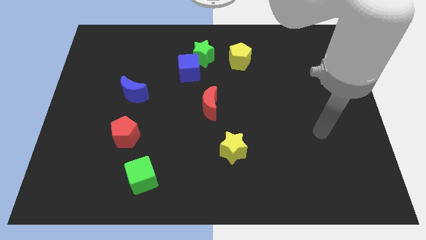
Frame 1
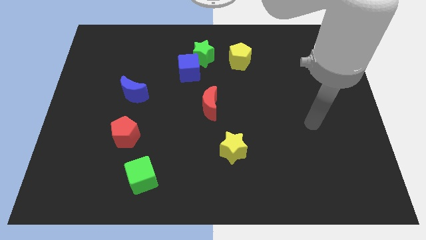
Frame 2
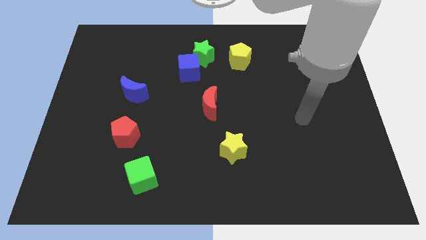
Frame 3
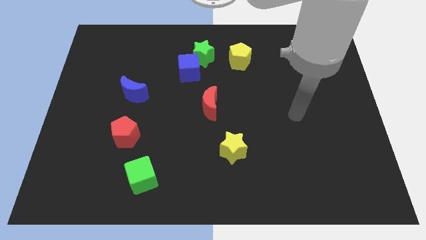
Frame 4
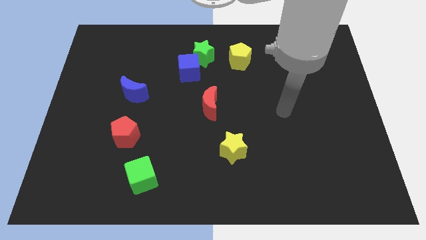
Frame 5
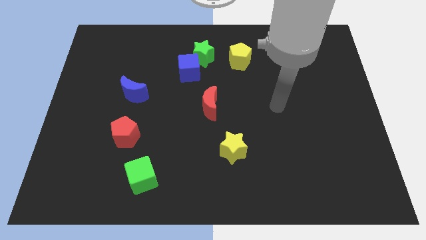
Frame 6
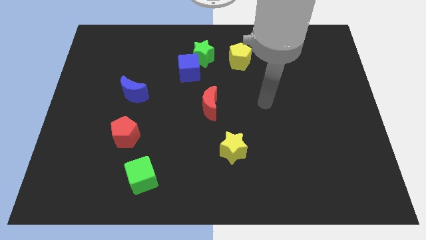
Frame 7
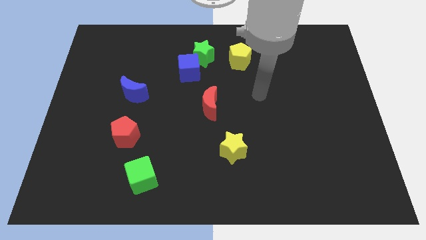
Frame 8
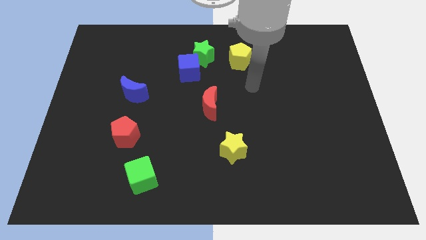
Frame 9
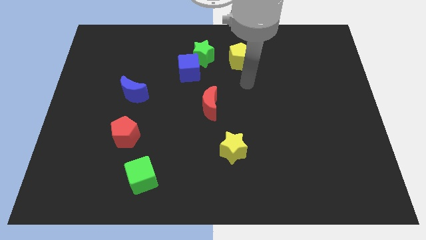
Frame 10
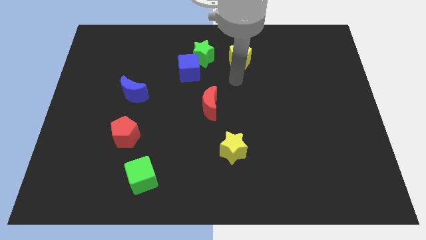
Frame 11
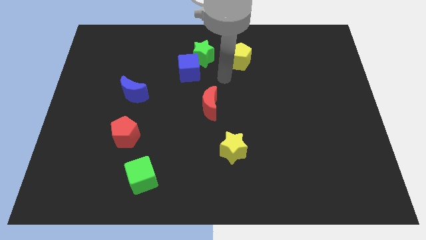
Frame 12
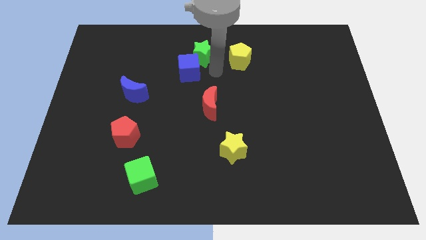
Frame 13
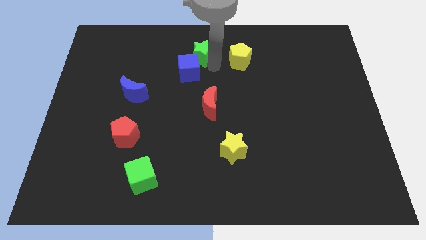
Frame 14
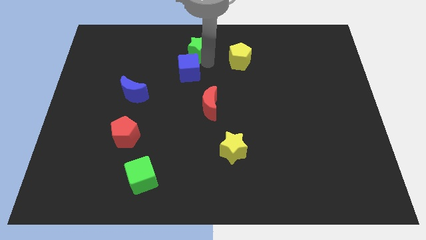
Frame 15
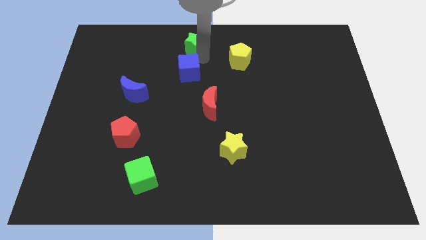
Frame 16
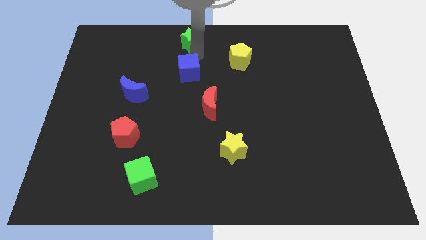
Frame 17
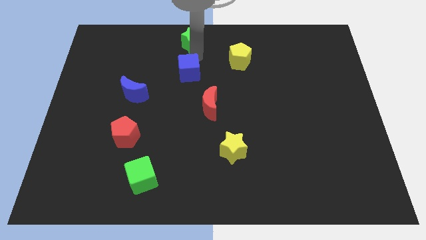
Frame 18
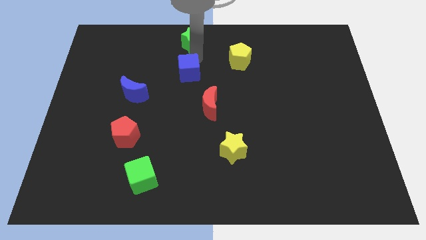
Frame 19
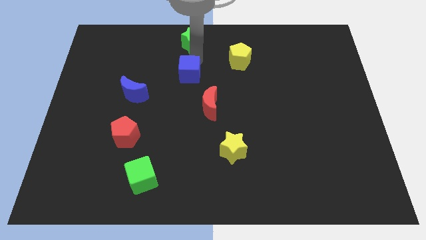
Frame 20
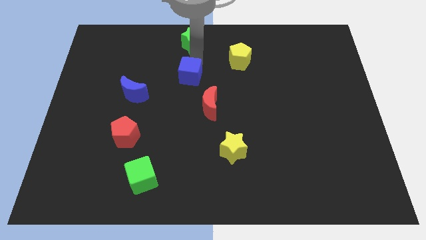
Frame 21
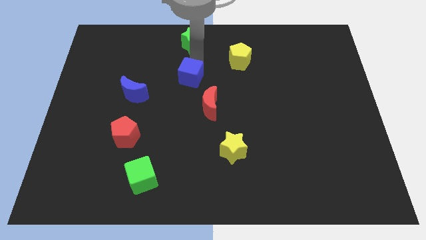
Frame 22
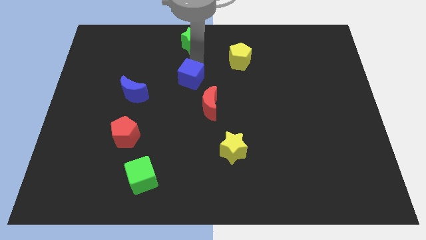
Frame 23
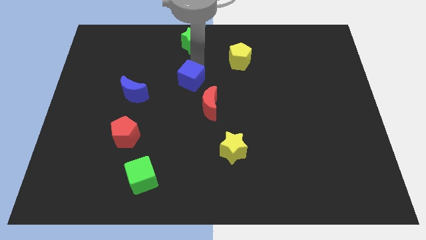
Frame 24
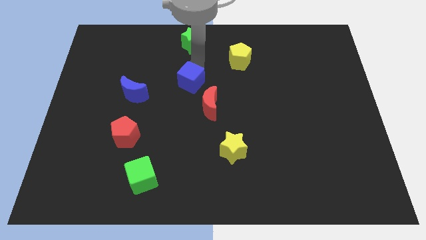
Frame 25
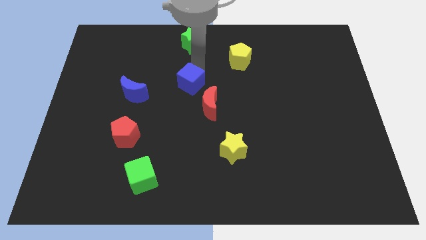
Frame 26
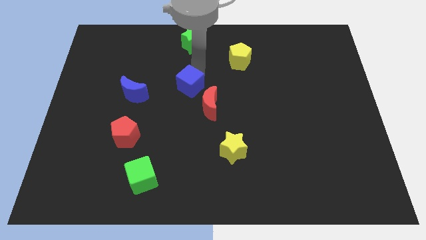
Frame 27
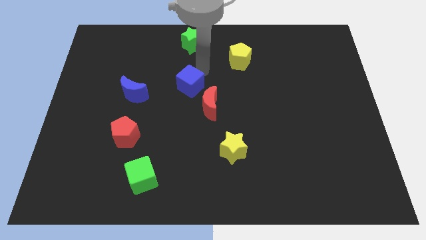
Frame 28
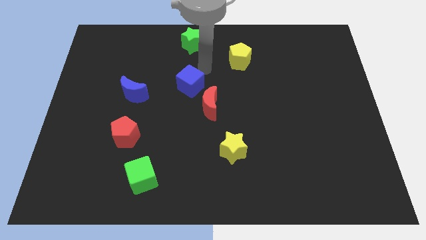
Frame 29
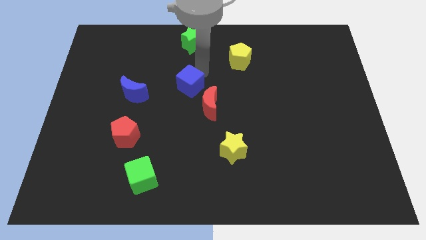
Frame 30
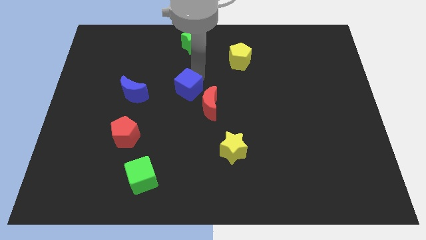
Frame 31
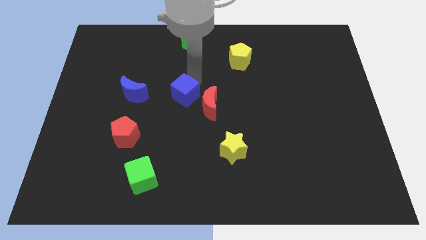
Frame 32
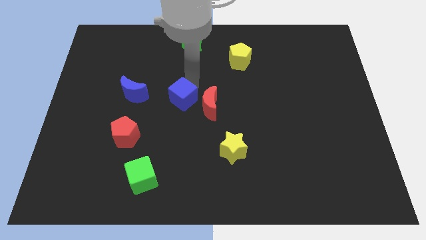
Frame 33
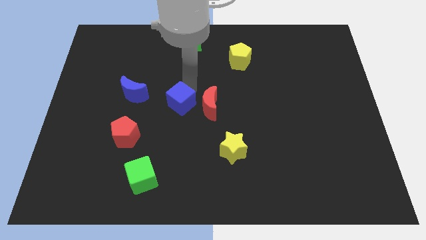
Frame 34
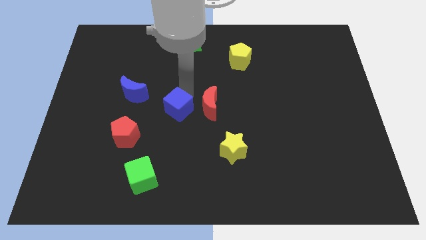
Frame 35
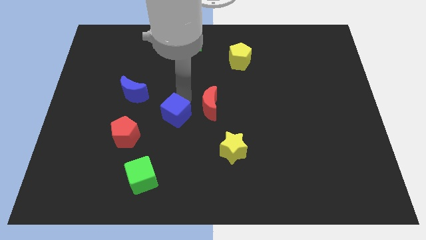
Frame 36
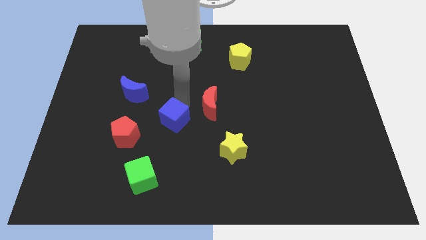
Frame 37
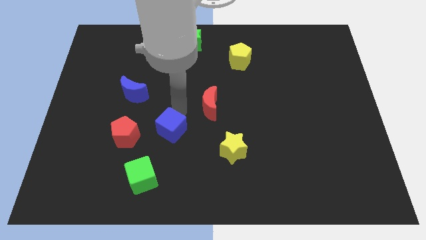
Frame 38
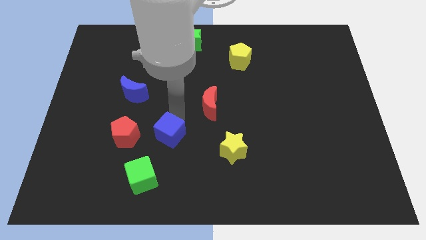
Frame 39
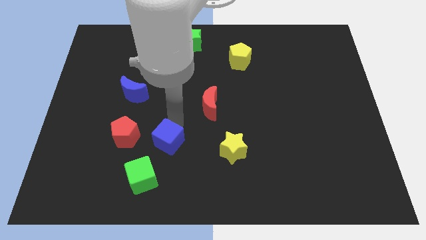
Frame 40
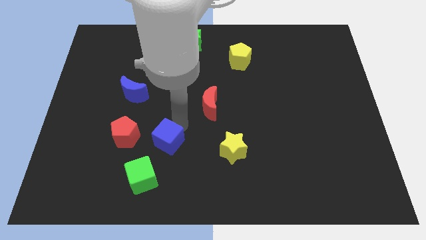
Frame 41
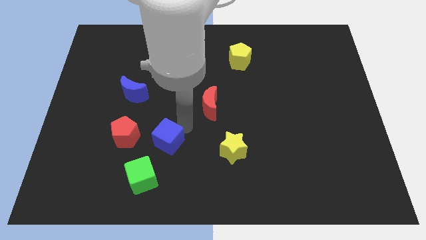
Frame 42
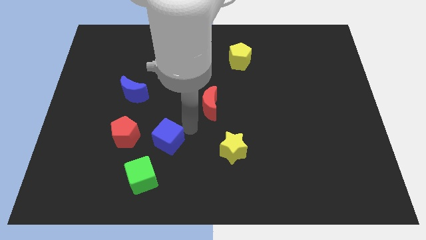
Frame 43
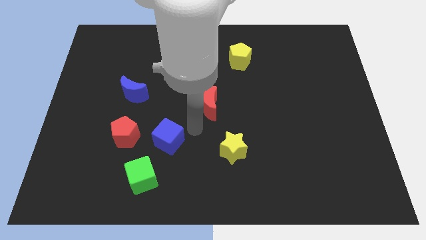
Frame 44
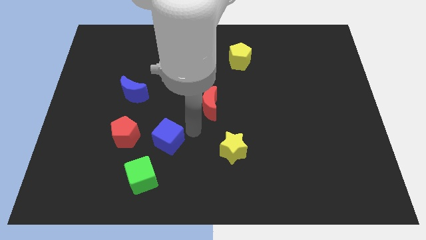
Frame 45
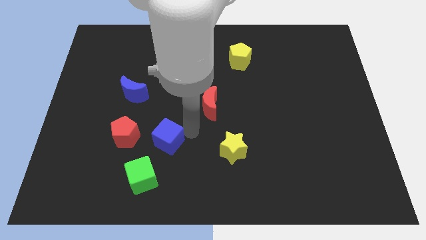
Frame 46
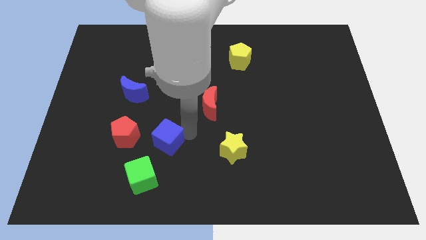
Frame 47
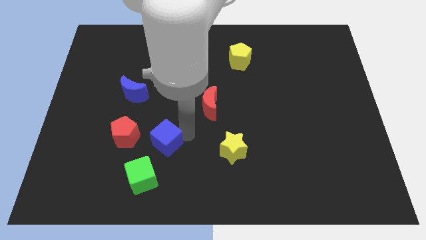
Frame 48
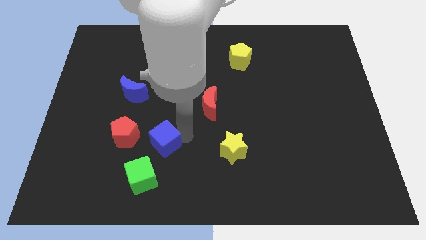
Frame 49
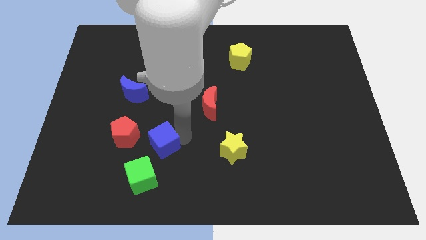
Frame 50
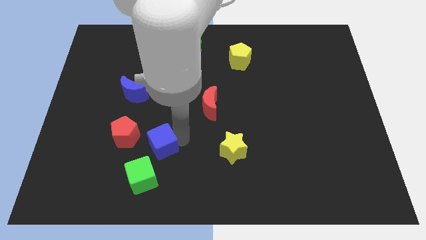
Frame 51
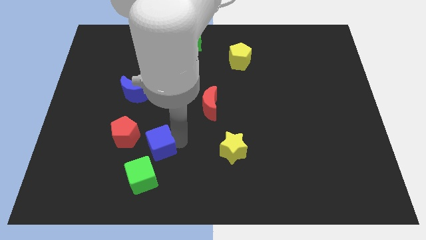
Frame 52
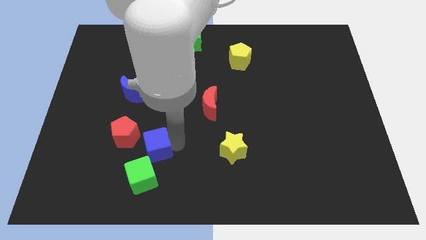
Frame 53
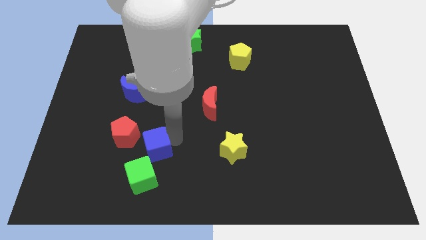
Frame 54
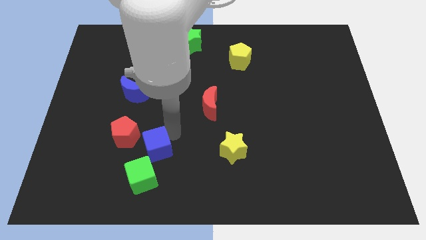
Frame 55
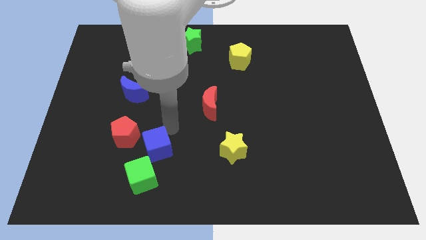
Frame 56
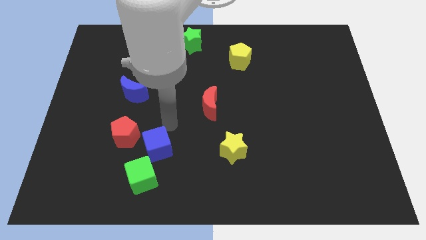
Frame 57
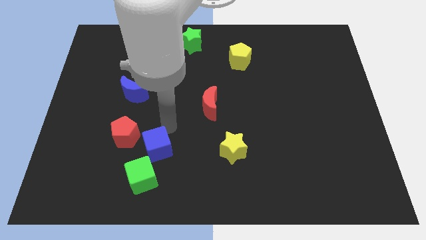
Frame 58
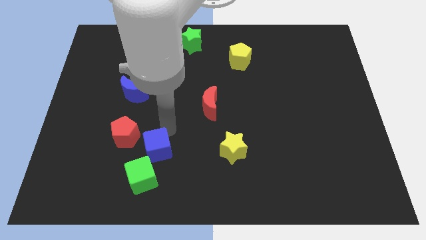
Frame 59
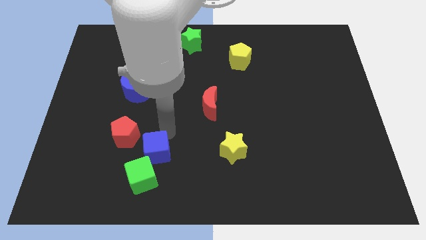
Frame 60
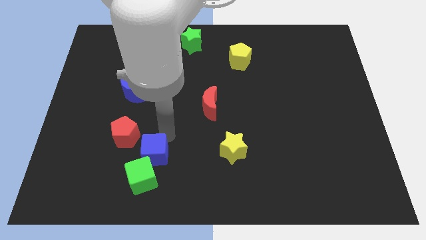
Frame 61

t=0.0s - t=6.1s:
put the blue cube to the green cube

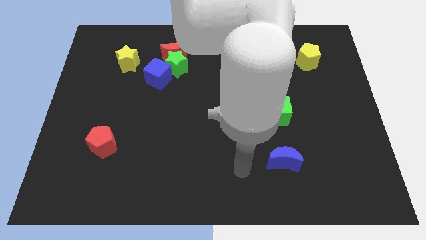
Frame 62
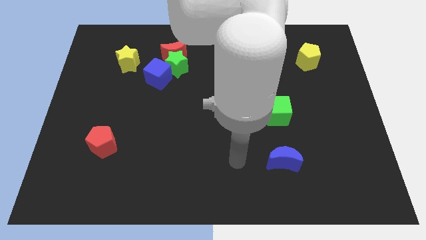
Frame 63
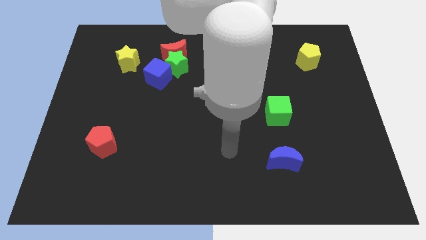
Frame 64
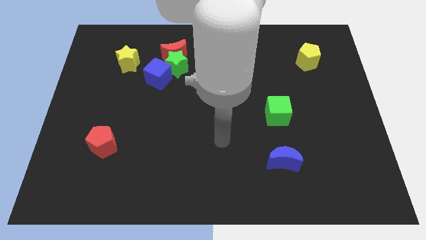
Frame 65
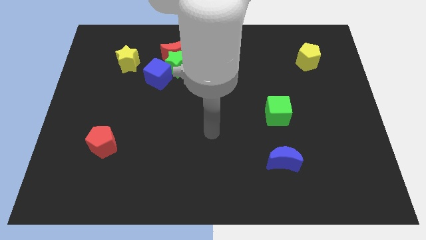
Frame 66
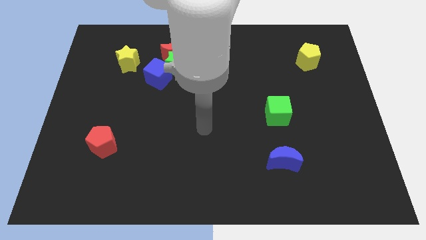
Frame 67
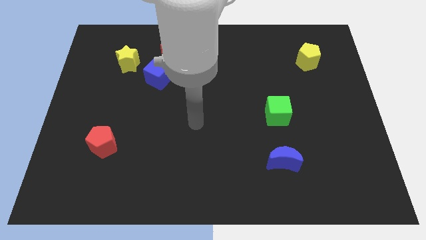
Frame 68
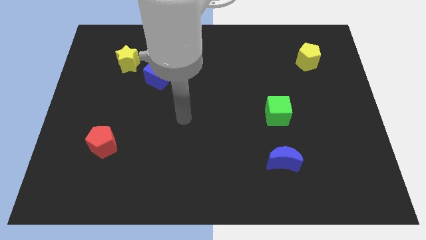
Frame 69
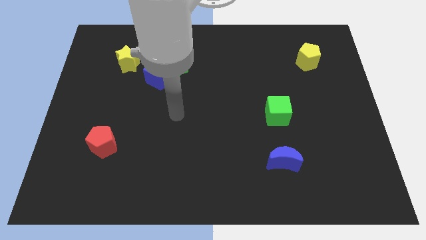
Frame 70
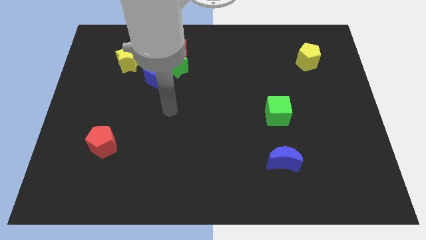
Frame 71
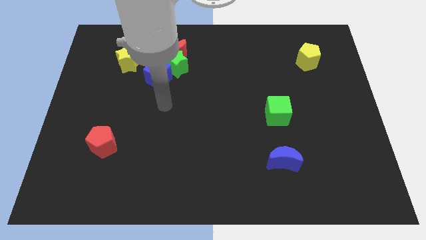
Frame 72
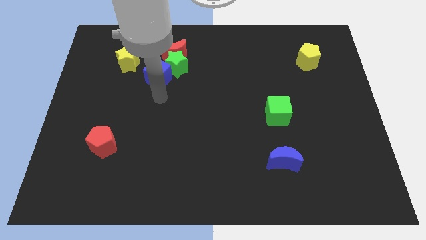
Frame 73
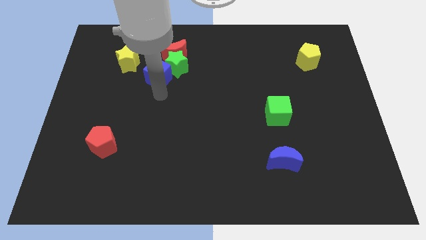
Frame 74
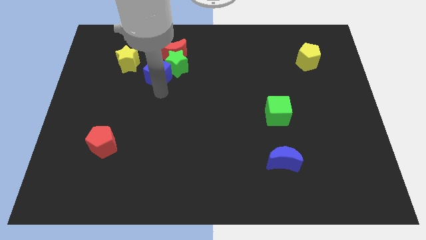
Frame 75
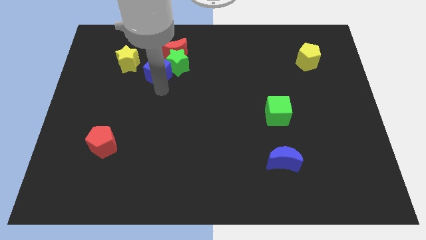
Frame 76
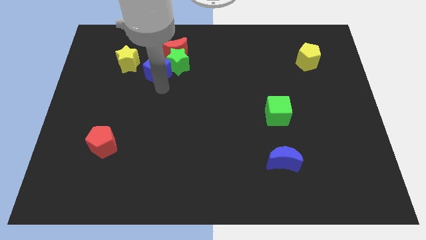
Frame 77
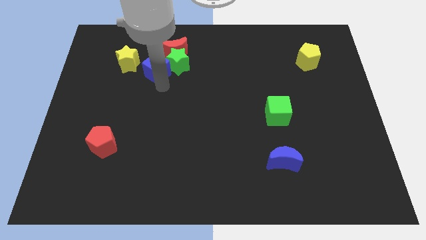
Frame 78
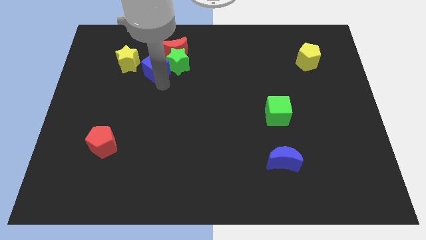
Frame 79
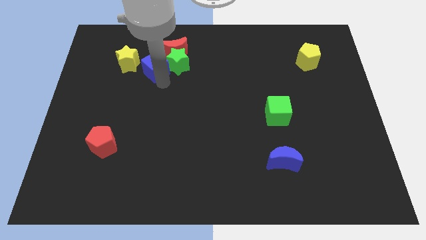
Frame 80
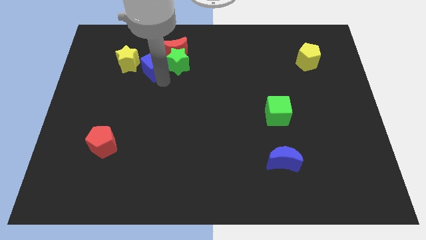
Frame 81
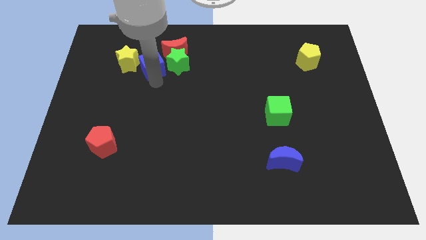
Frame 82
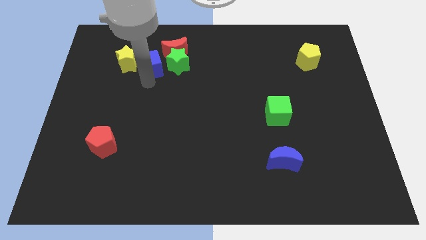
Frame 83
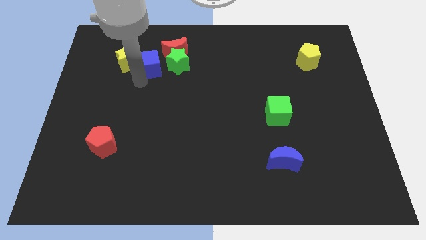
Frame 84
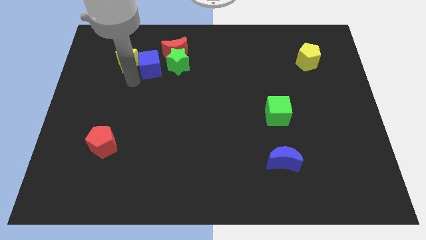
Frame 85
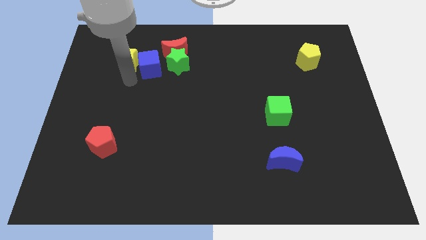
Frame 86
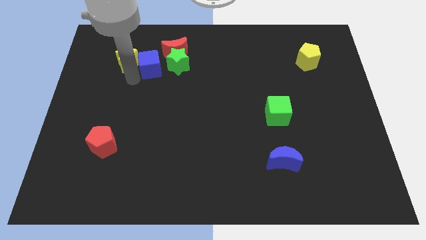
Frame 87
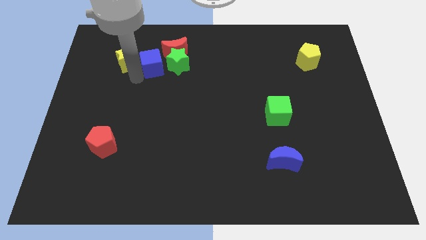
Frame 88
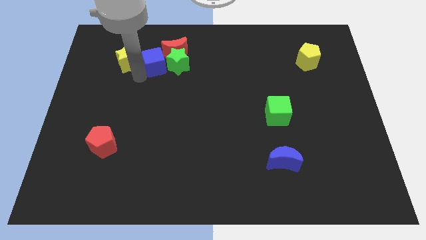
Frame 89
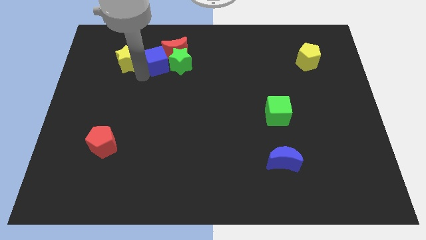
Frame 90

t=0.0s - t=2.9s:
push the blue cube towards the red moon
